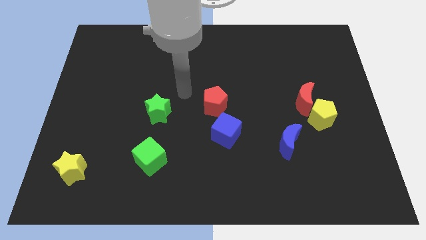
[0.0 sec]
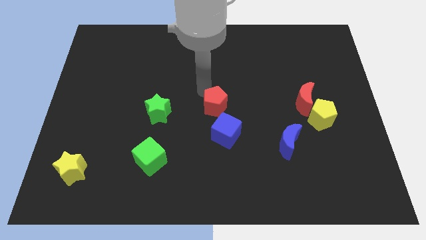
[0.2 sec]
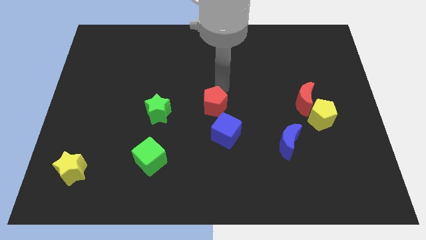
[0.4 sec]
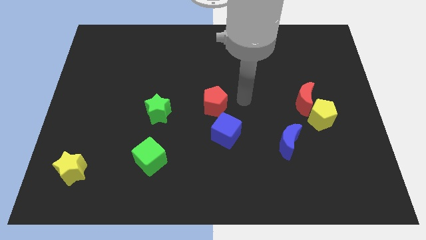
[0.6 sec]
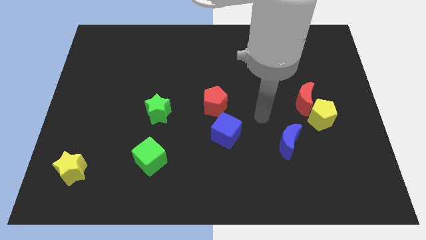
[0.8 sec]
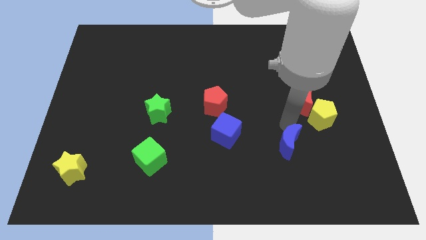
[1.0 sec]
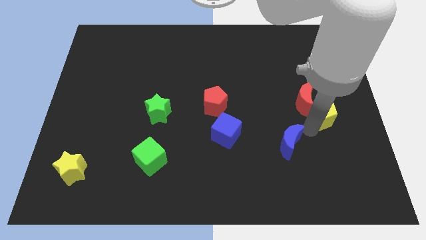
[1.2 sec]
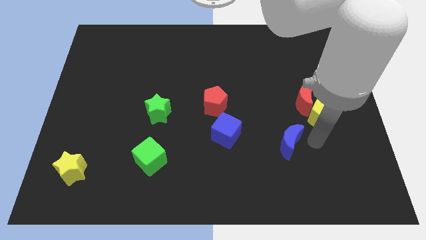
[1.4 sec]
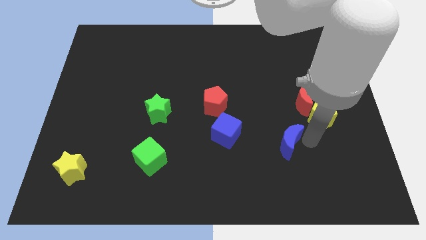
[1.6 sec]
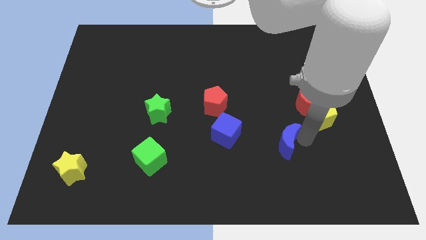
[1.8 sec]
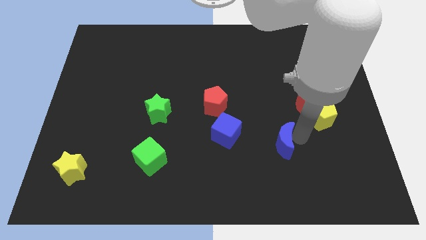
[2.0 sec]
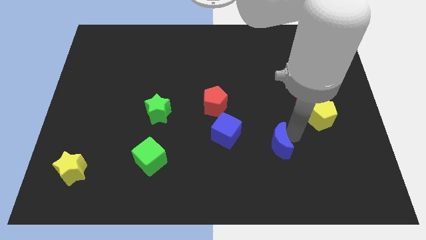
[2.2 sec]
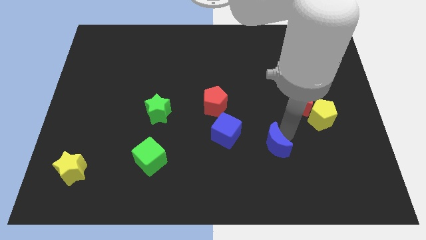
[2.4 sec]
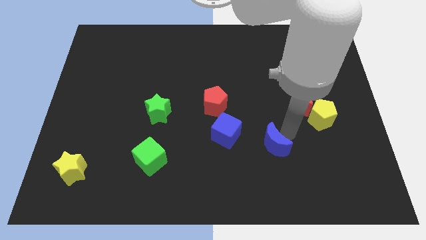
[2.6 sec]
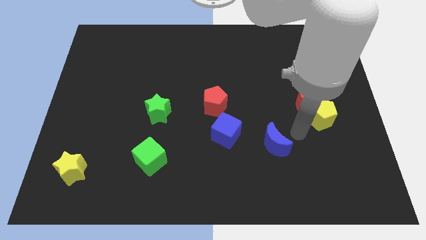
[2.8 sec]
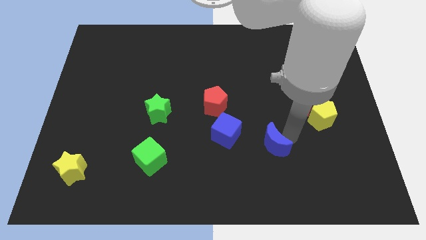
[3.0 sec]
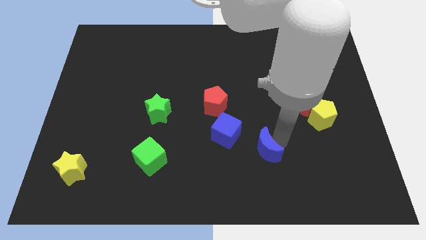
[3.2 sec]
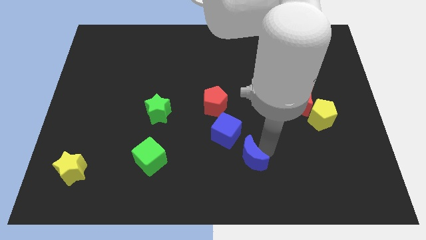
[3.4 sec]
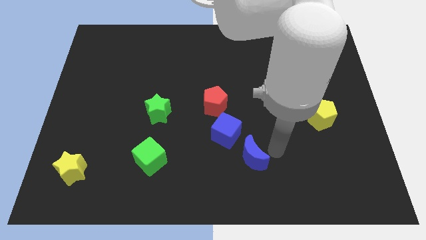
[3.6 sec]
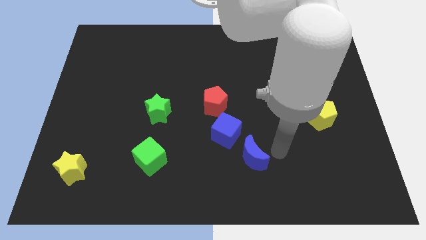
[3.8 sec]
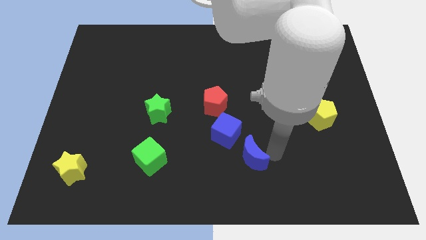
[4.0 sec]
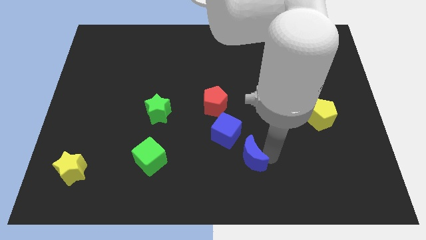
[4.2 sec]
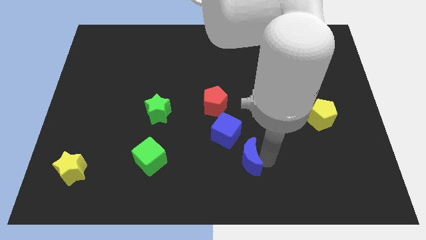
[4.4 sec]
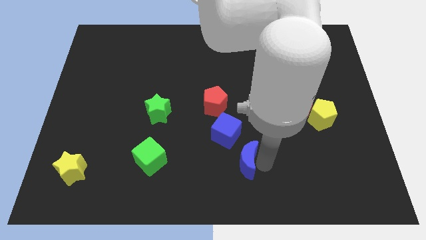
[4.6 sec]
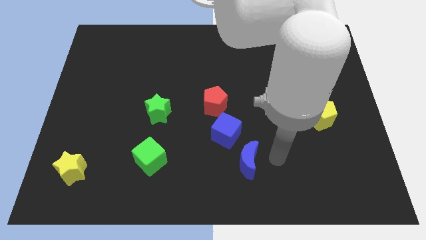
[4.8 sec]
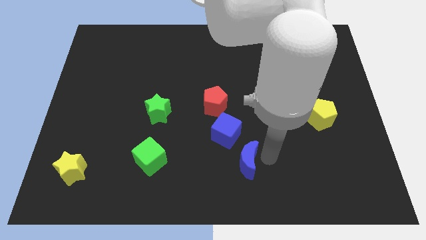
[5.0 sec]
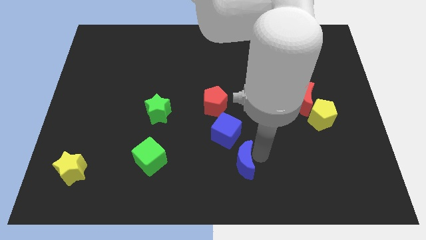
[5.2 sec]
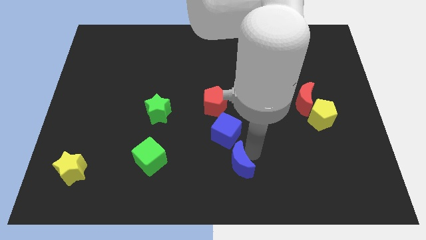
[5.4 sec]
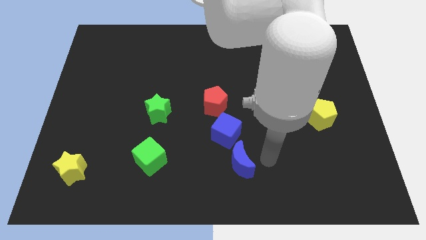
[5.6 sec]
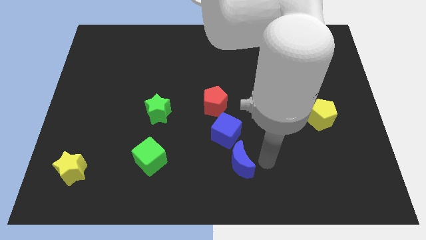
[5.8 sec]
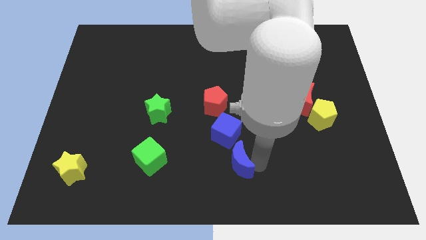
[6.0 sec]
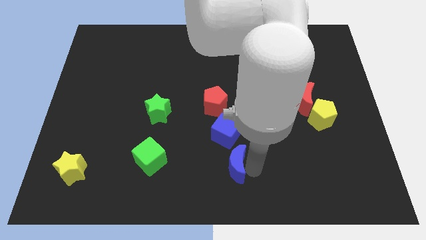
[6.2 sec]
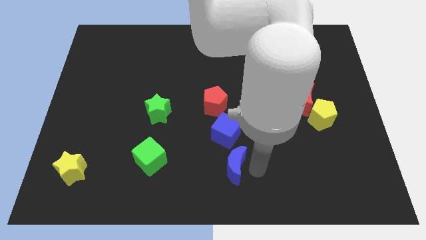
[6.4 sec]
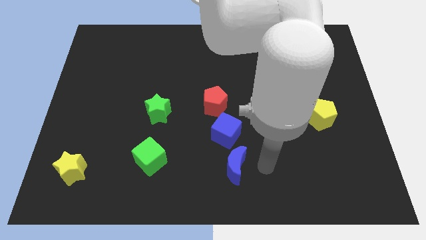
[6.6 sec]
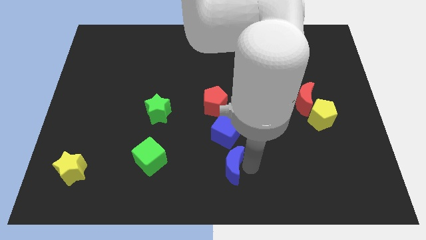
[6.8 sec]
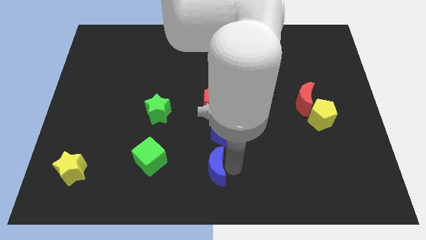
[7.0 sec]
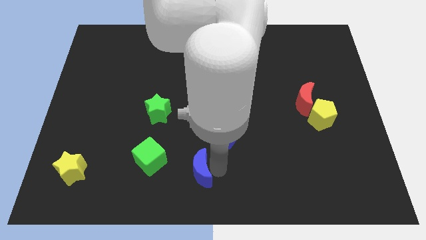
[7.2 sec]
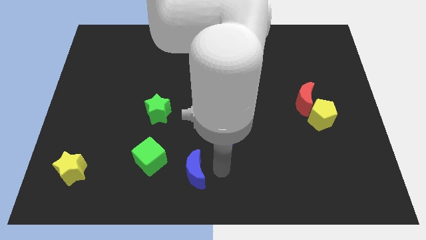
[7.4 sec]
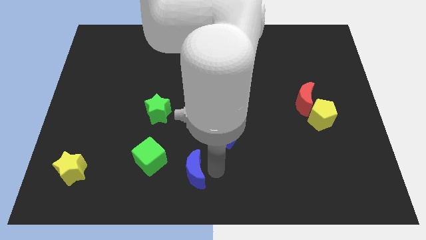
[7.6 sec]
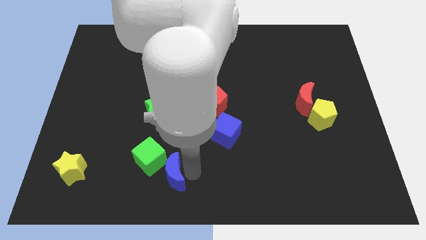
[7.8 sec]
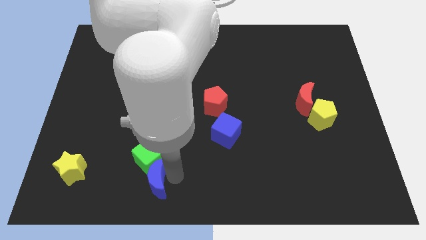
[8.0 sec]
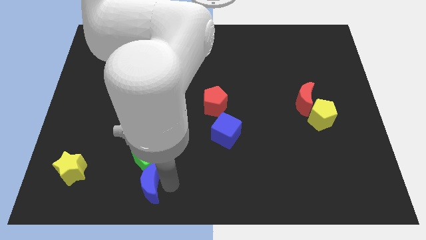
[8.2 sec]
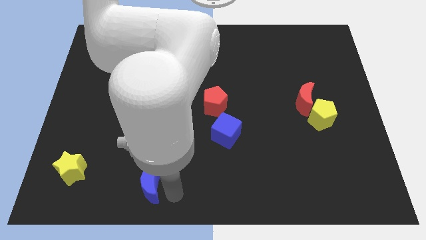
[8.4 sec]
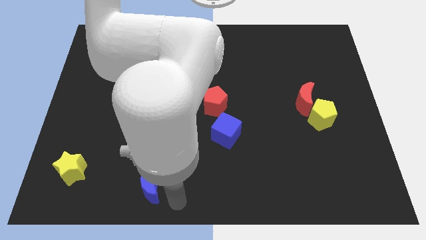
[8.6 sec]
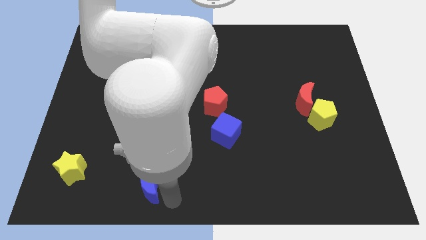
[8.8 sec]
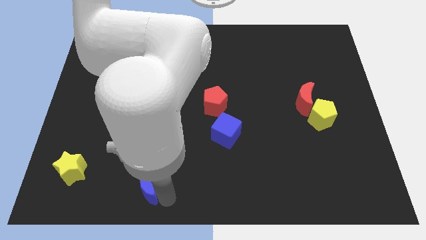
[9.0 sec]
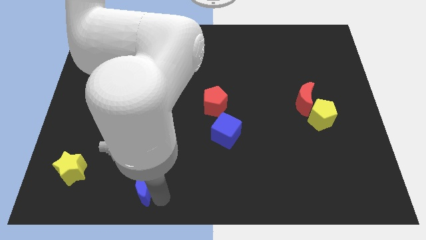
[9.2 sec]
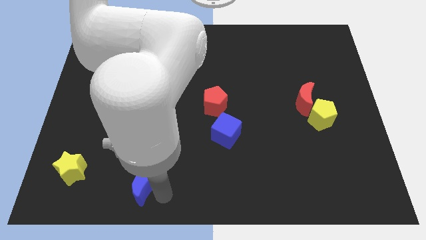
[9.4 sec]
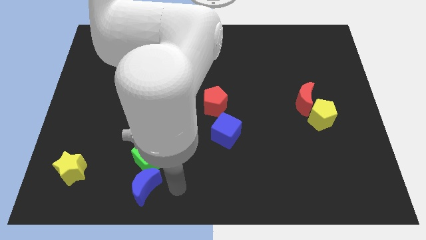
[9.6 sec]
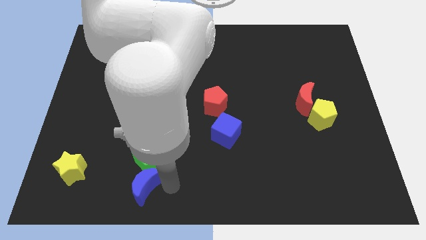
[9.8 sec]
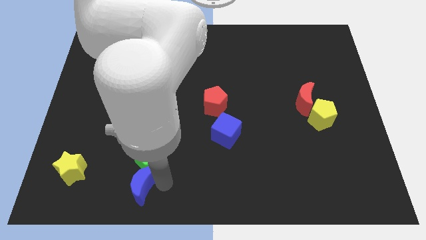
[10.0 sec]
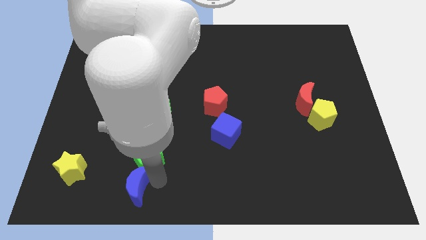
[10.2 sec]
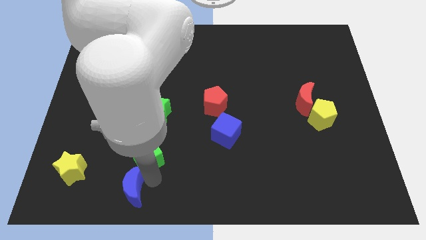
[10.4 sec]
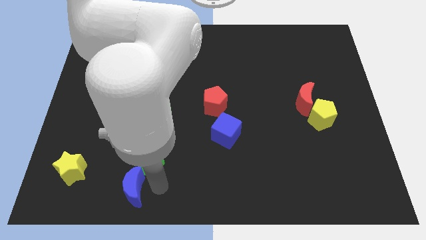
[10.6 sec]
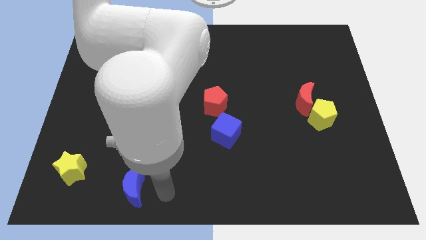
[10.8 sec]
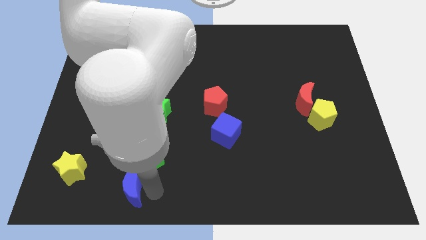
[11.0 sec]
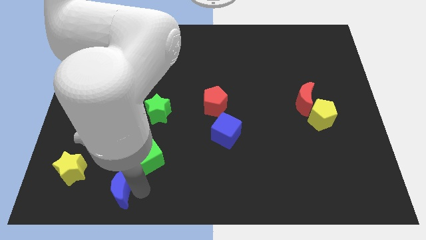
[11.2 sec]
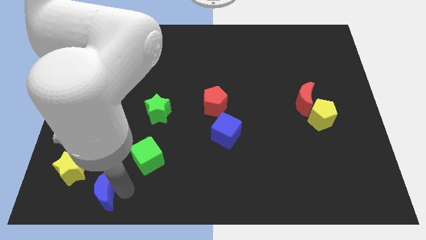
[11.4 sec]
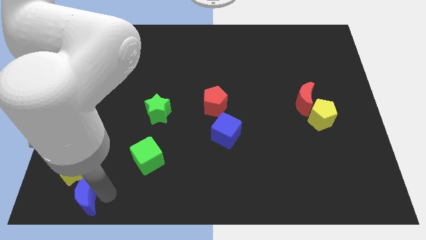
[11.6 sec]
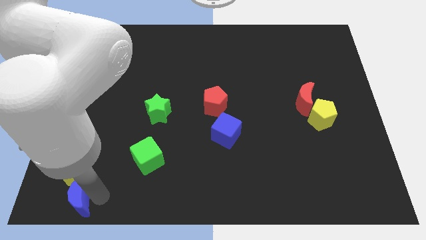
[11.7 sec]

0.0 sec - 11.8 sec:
put the blue moon to the lower left corner

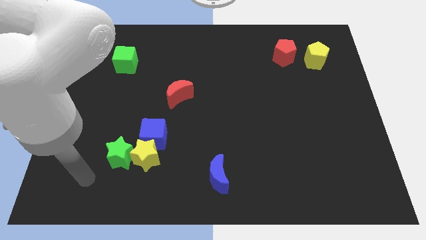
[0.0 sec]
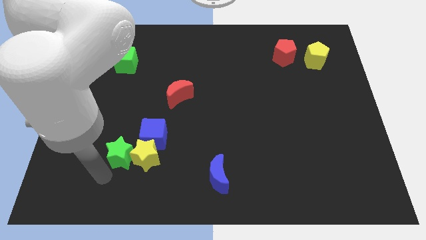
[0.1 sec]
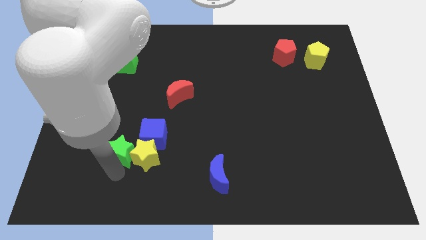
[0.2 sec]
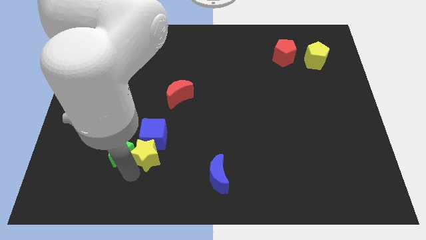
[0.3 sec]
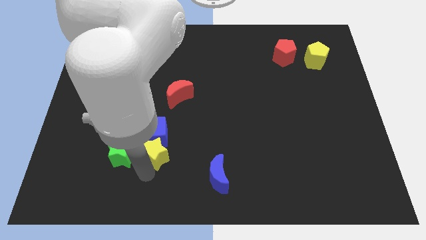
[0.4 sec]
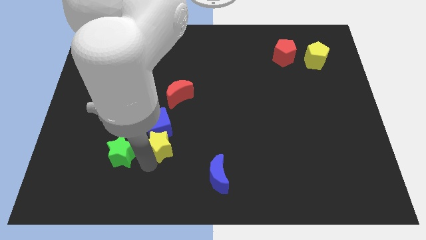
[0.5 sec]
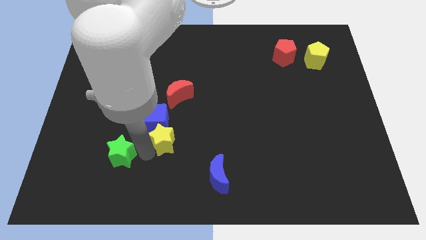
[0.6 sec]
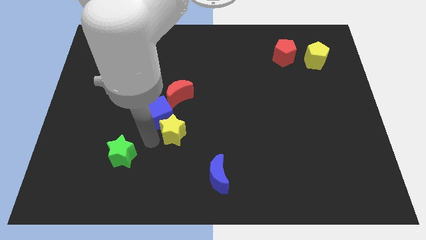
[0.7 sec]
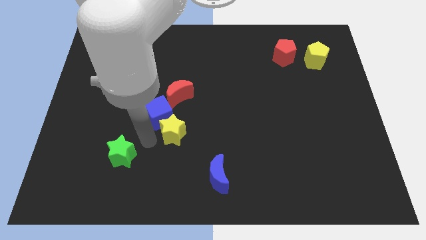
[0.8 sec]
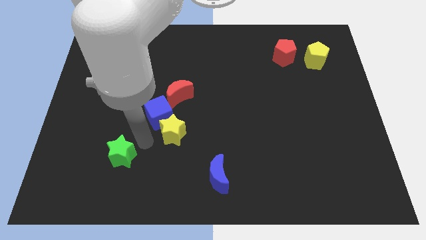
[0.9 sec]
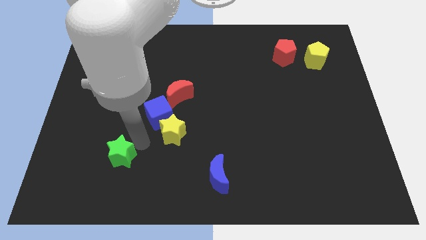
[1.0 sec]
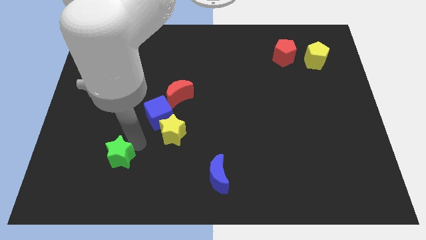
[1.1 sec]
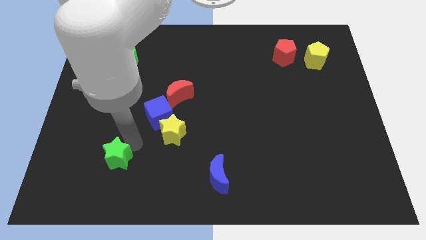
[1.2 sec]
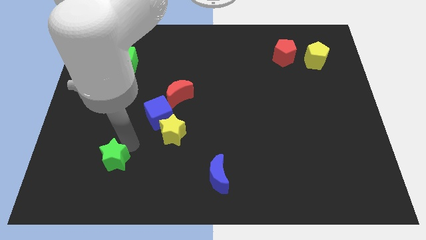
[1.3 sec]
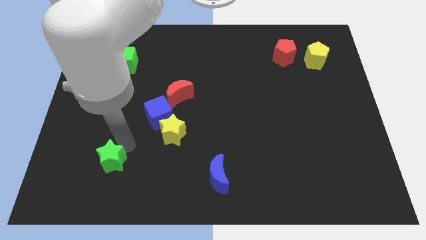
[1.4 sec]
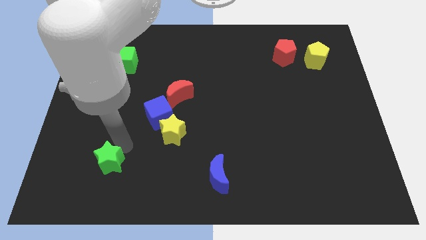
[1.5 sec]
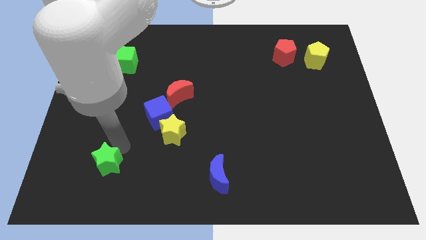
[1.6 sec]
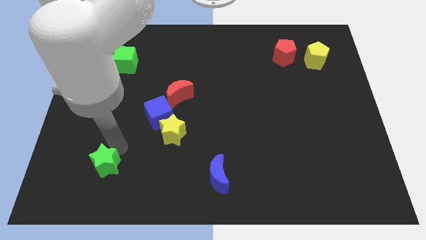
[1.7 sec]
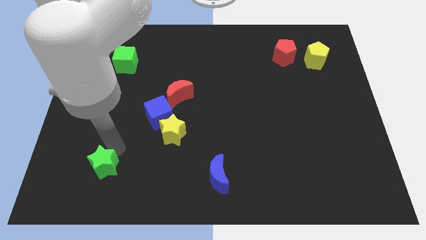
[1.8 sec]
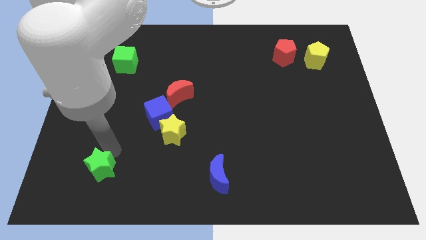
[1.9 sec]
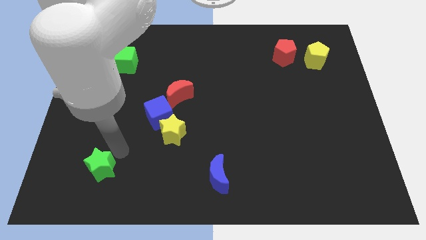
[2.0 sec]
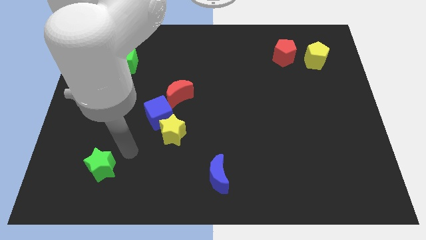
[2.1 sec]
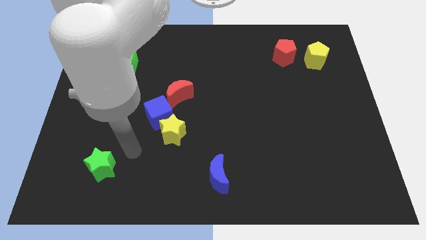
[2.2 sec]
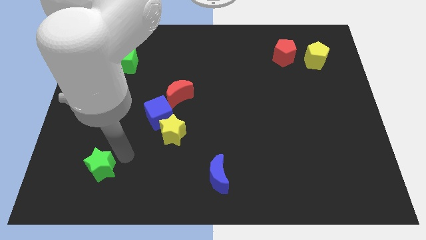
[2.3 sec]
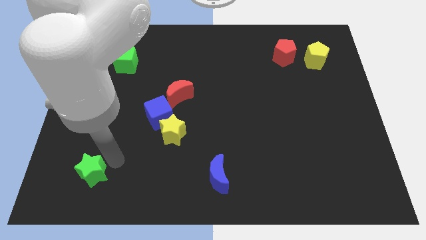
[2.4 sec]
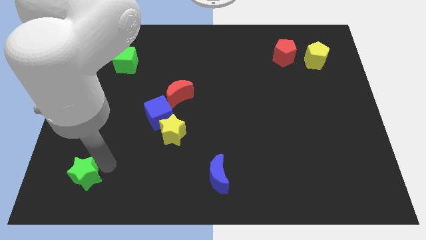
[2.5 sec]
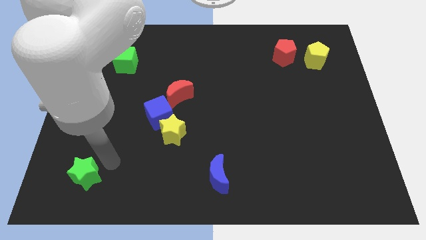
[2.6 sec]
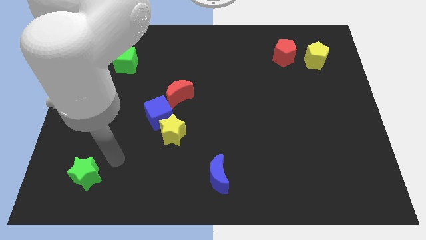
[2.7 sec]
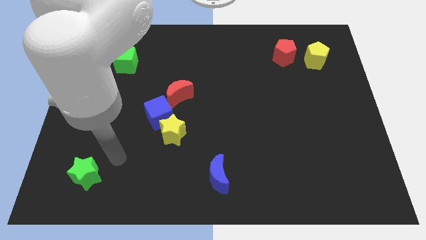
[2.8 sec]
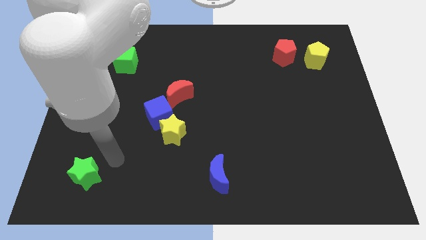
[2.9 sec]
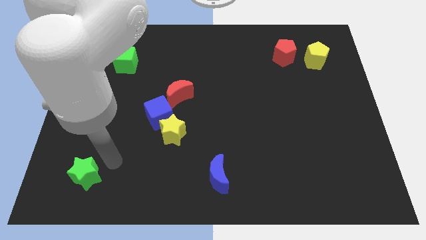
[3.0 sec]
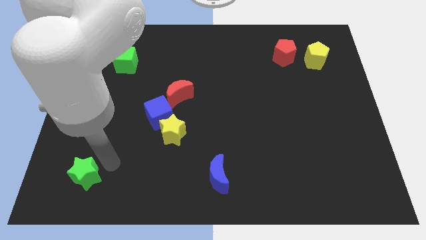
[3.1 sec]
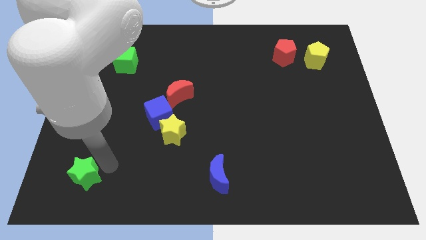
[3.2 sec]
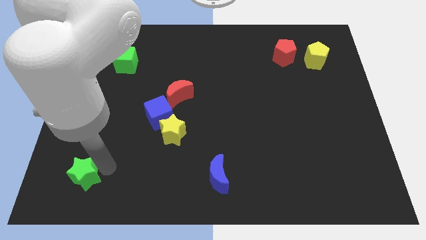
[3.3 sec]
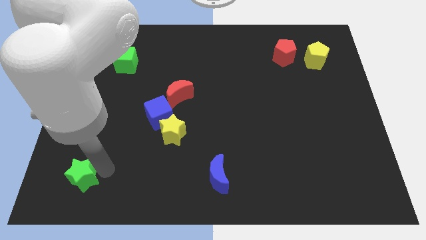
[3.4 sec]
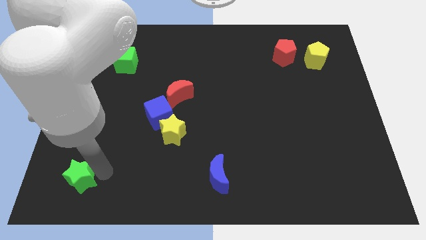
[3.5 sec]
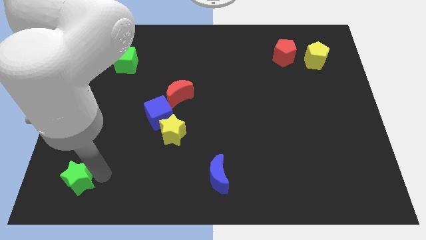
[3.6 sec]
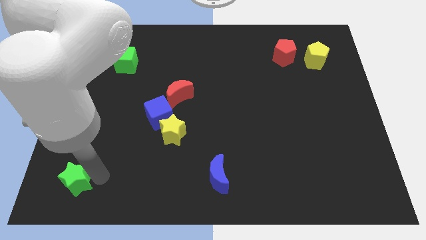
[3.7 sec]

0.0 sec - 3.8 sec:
push the green star to the bottom left
